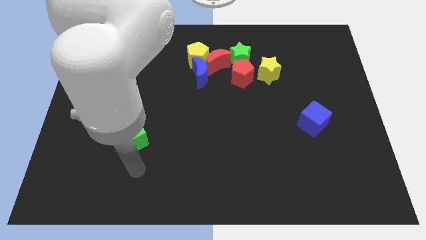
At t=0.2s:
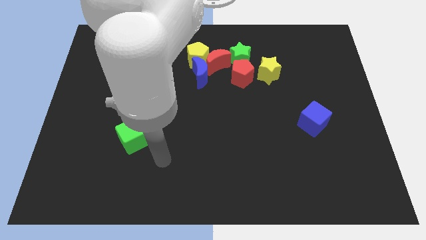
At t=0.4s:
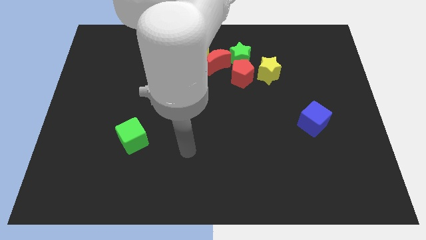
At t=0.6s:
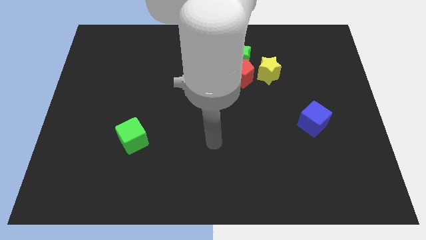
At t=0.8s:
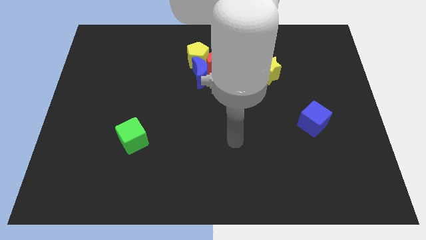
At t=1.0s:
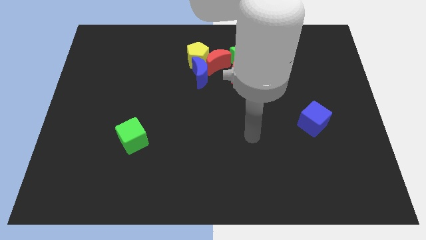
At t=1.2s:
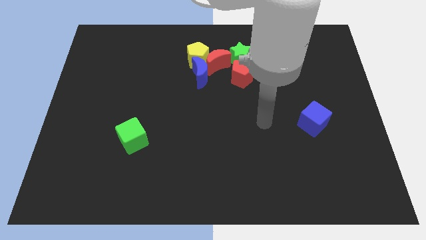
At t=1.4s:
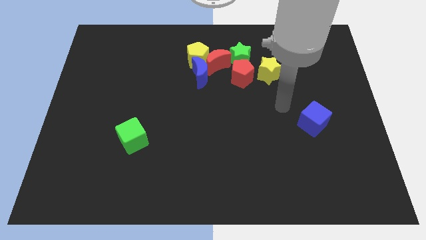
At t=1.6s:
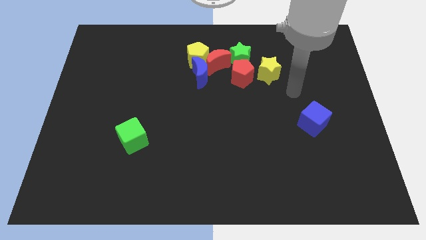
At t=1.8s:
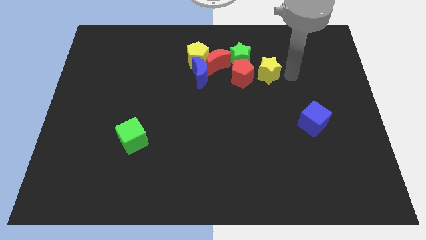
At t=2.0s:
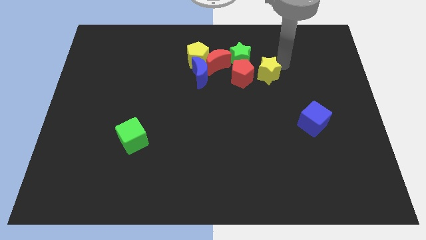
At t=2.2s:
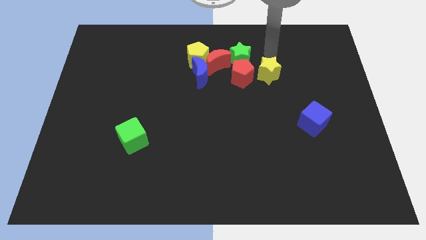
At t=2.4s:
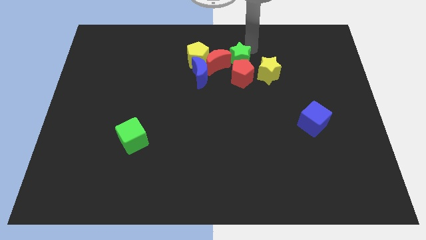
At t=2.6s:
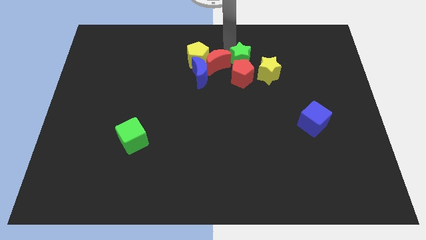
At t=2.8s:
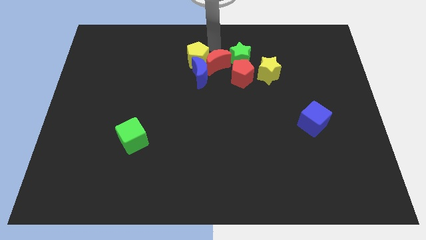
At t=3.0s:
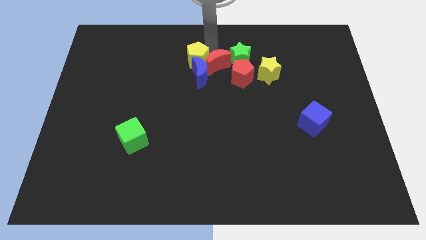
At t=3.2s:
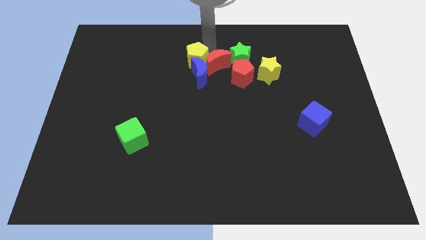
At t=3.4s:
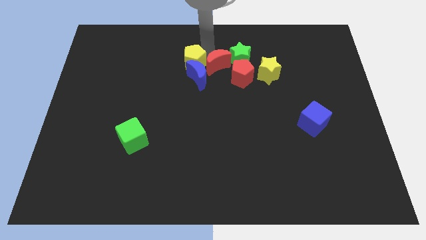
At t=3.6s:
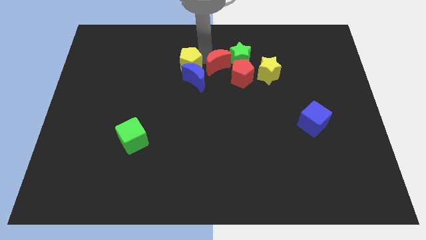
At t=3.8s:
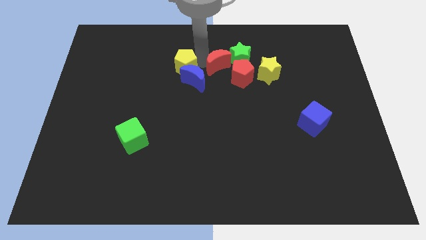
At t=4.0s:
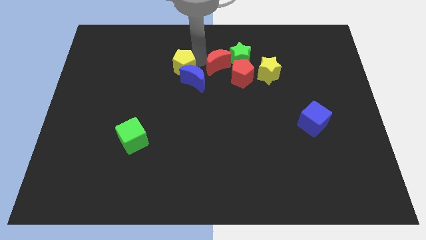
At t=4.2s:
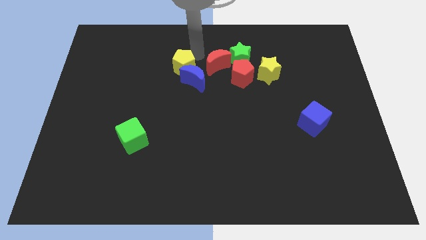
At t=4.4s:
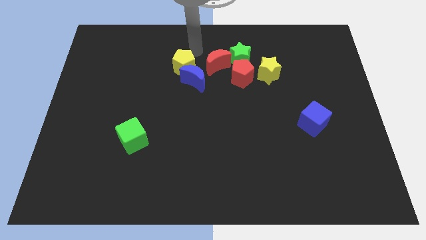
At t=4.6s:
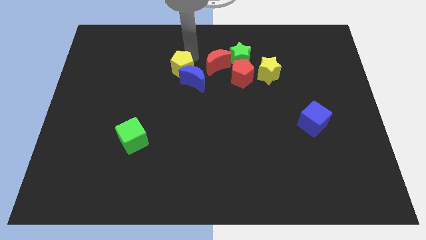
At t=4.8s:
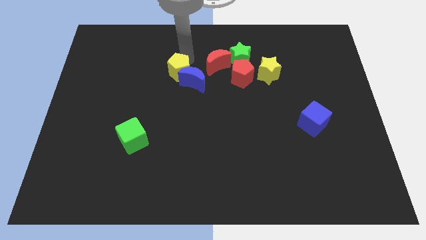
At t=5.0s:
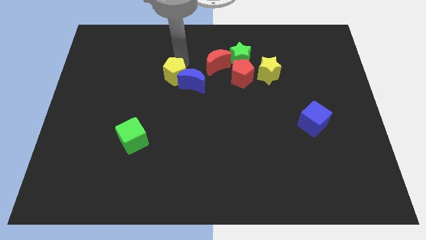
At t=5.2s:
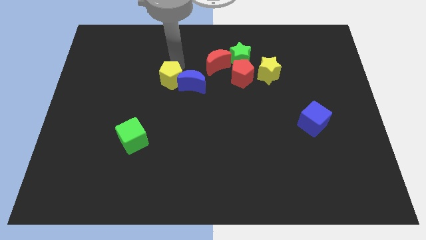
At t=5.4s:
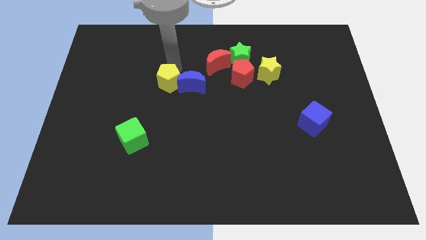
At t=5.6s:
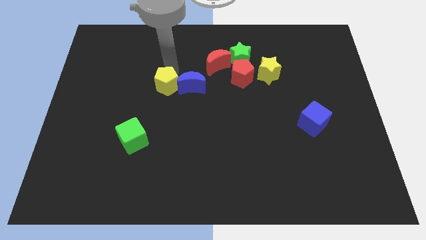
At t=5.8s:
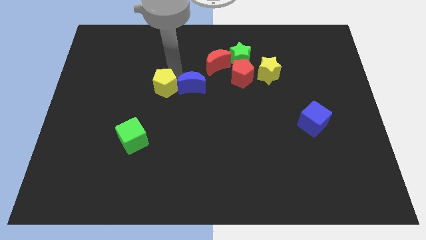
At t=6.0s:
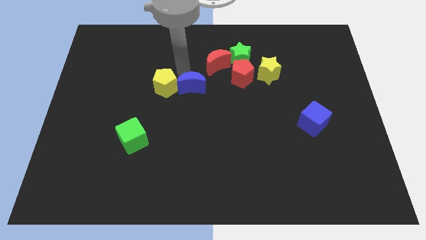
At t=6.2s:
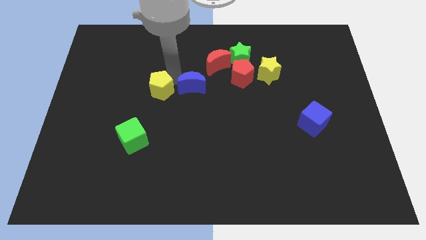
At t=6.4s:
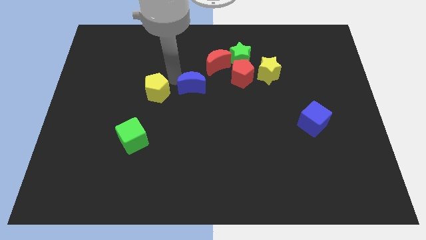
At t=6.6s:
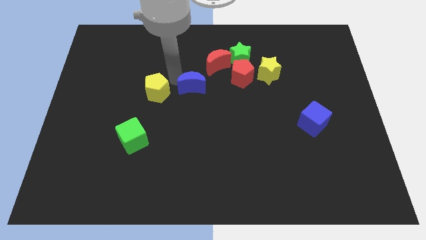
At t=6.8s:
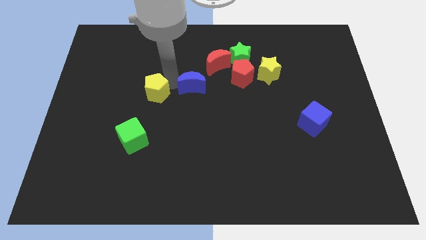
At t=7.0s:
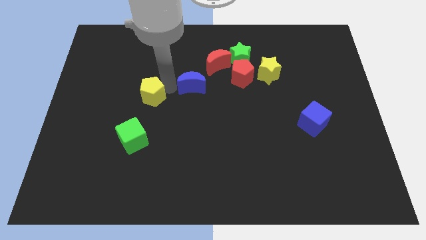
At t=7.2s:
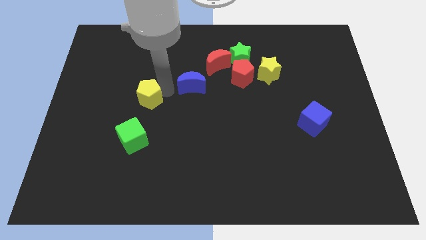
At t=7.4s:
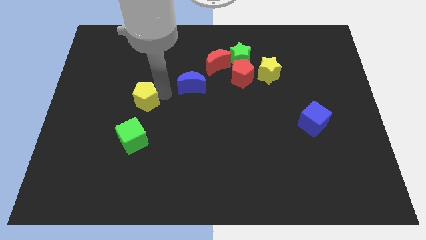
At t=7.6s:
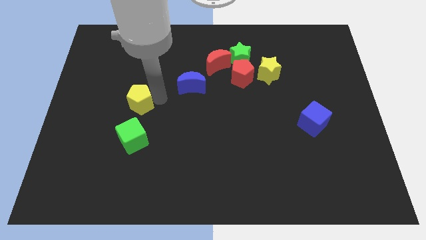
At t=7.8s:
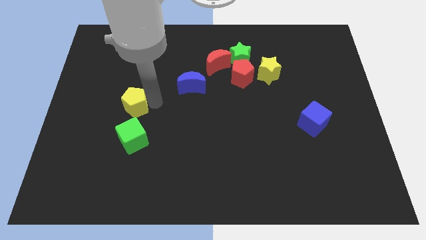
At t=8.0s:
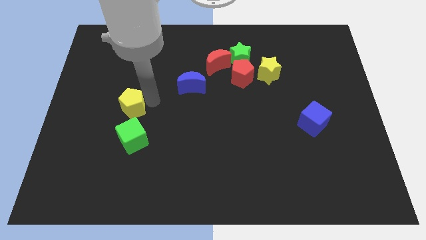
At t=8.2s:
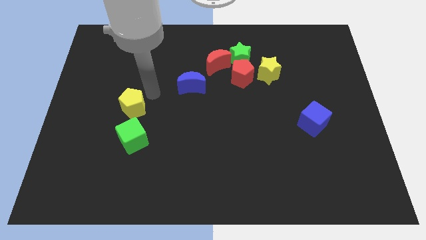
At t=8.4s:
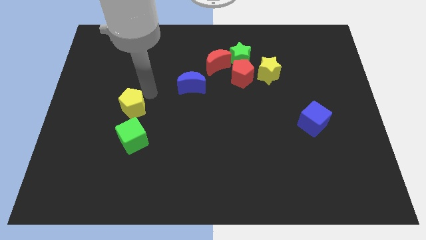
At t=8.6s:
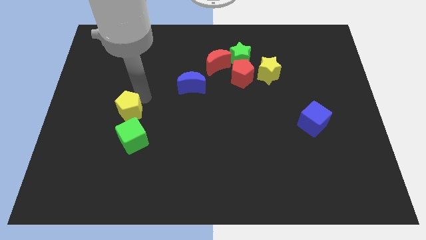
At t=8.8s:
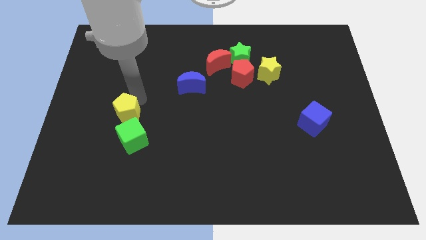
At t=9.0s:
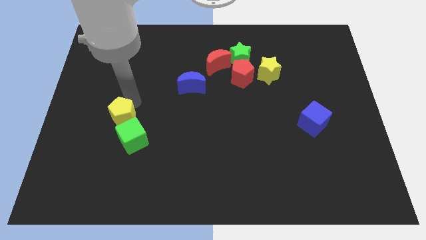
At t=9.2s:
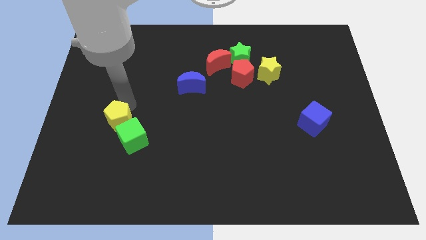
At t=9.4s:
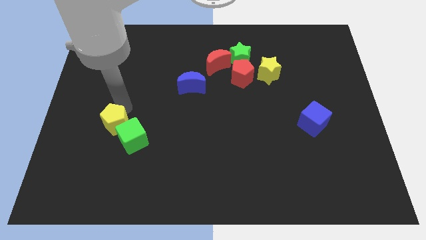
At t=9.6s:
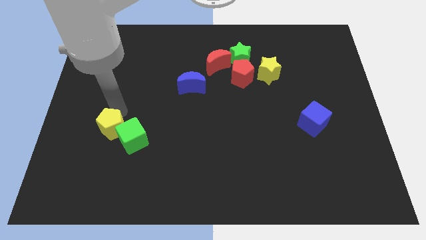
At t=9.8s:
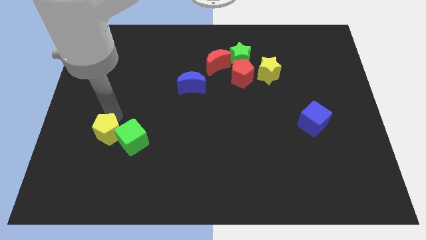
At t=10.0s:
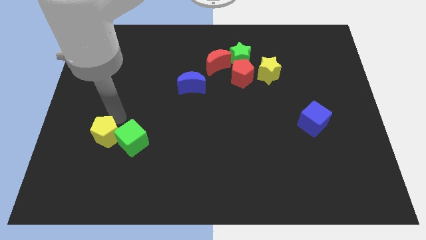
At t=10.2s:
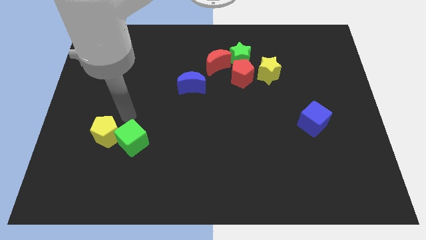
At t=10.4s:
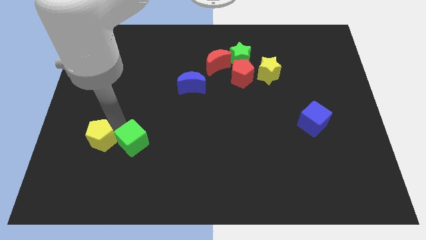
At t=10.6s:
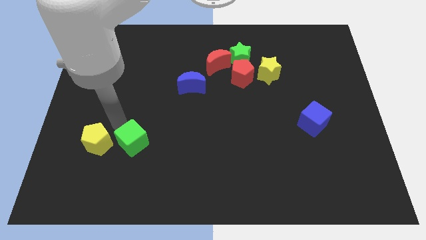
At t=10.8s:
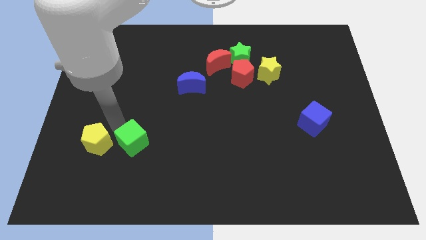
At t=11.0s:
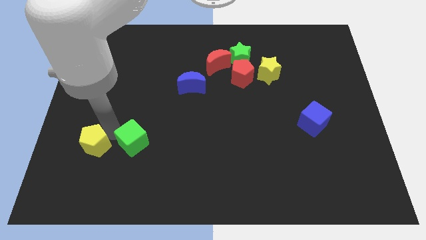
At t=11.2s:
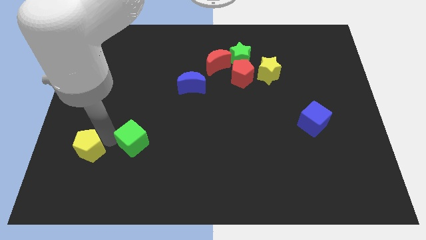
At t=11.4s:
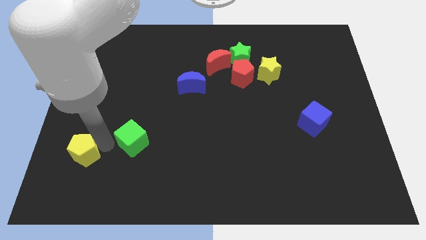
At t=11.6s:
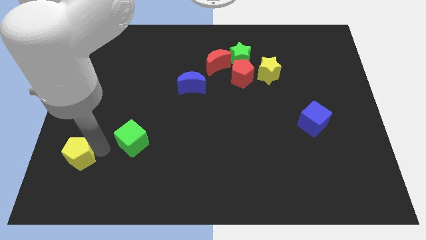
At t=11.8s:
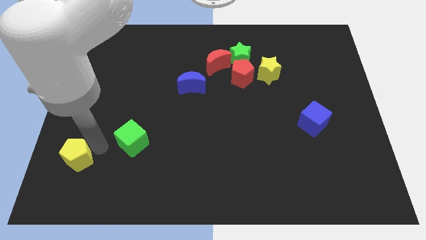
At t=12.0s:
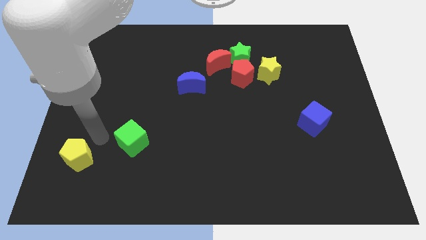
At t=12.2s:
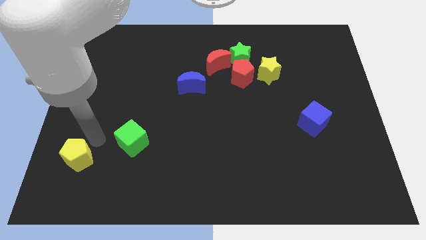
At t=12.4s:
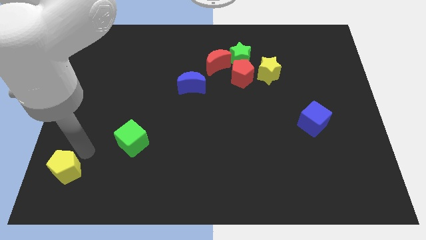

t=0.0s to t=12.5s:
slide the yellow pentagon to the bottom left corner

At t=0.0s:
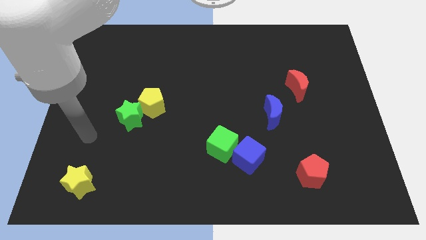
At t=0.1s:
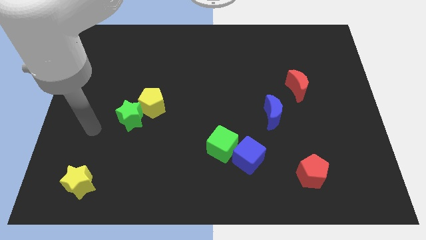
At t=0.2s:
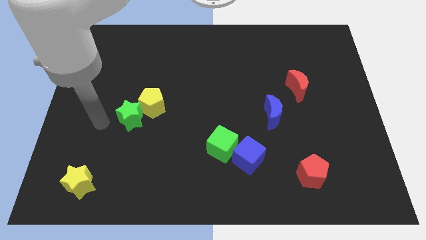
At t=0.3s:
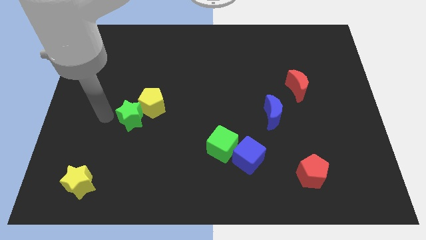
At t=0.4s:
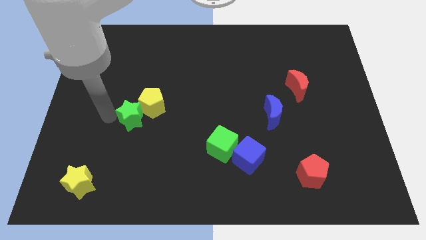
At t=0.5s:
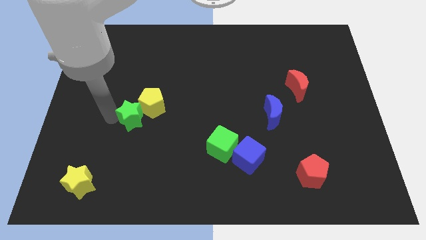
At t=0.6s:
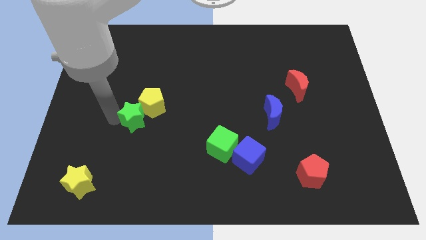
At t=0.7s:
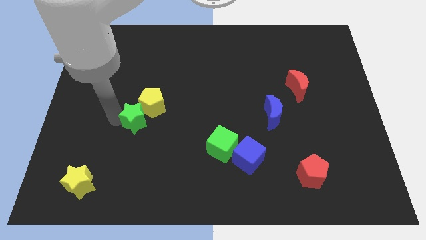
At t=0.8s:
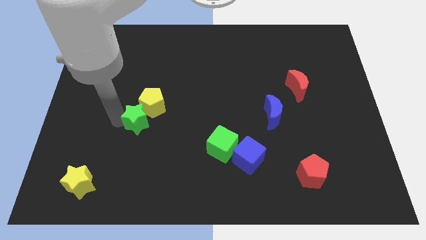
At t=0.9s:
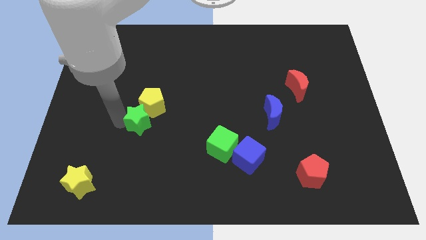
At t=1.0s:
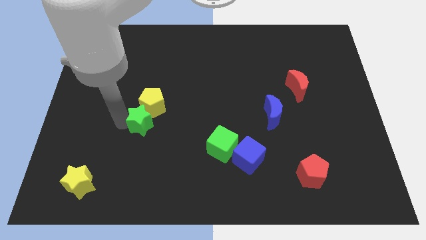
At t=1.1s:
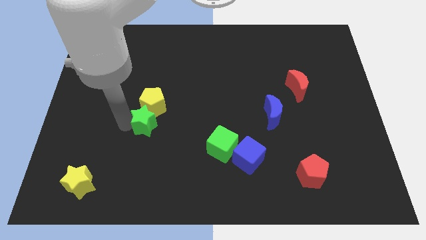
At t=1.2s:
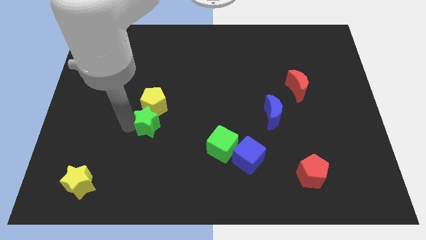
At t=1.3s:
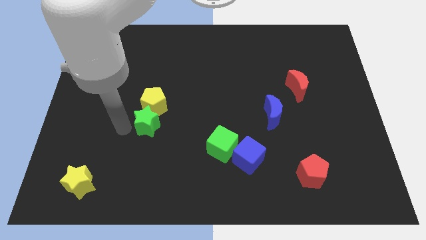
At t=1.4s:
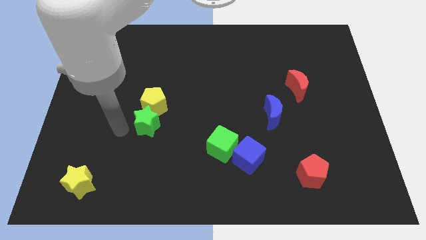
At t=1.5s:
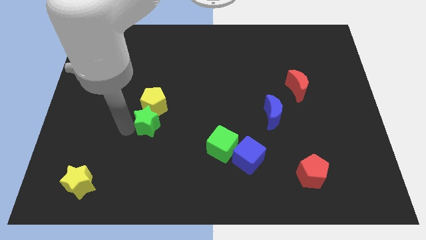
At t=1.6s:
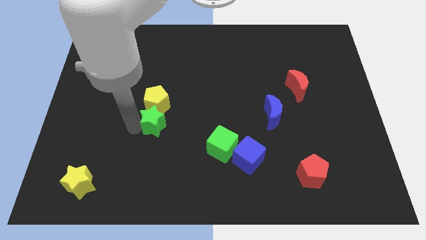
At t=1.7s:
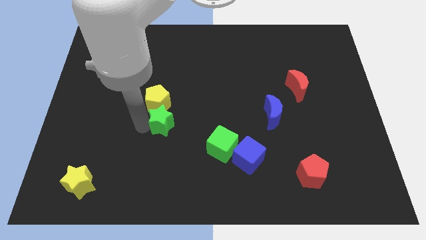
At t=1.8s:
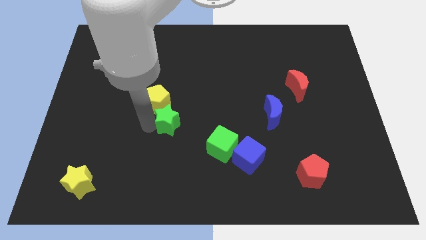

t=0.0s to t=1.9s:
push the green star to the center of the board
